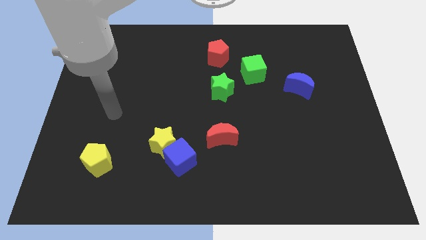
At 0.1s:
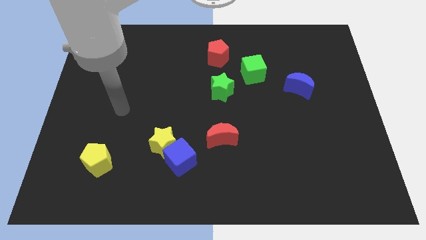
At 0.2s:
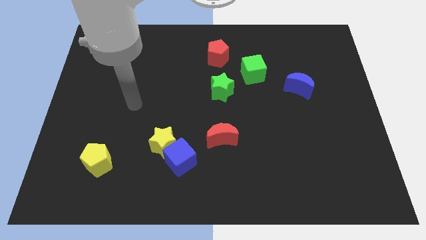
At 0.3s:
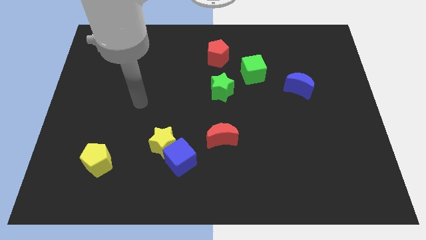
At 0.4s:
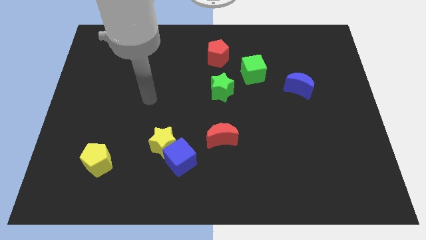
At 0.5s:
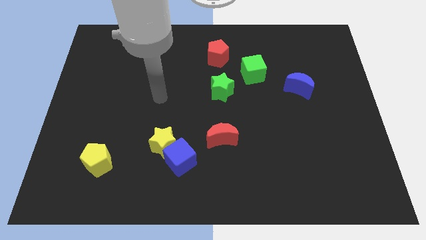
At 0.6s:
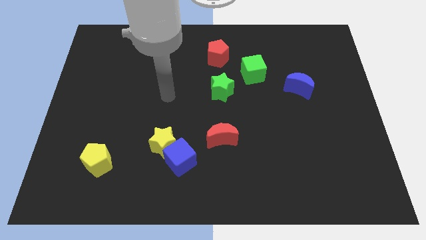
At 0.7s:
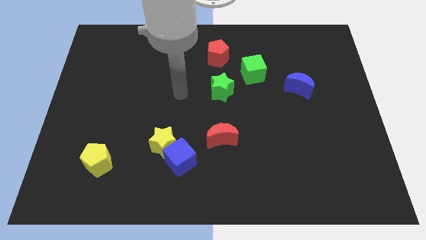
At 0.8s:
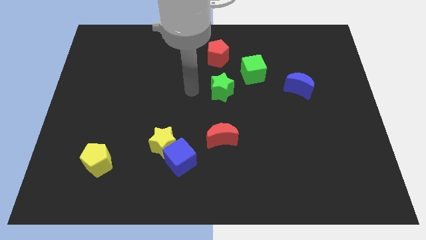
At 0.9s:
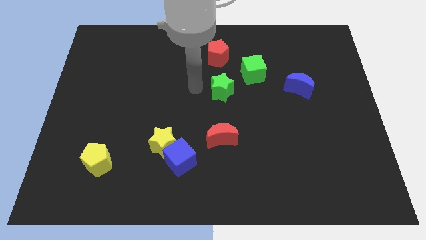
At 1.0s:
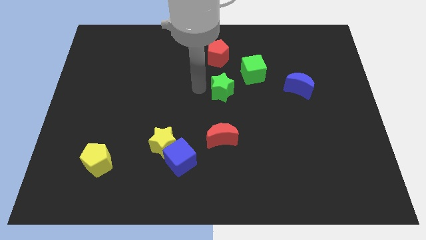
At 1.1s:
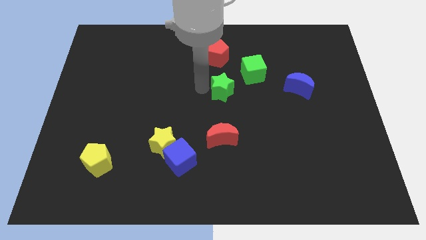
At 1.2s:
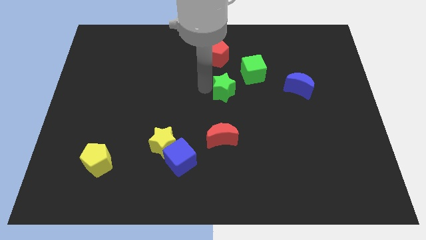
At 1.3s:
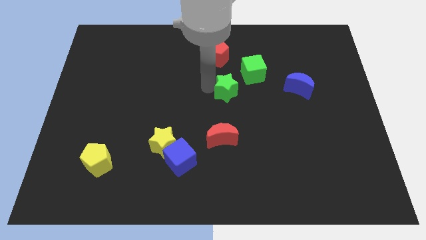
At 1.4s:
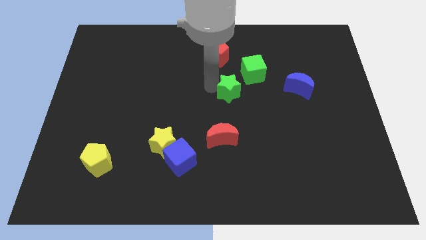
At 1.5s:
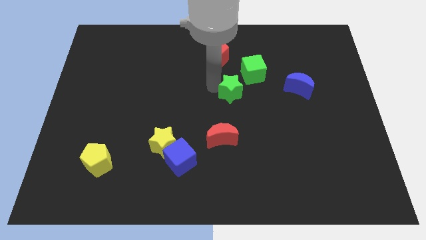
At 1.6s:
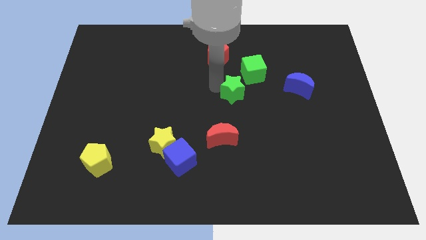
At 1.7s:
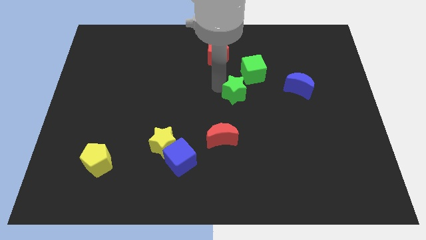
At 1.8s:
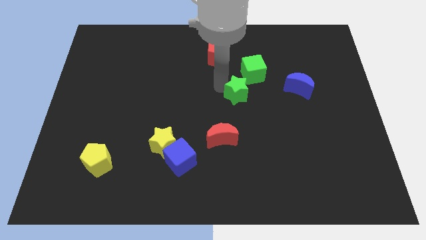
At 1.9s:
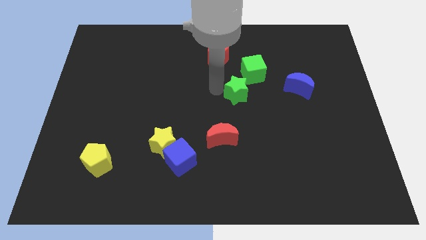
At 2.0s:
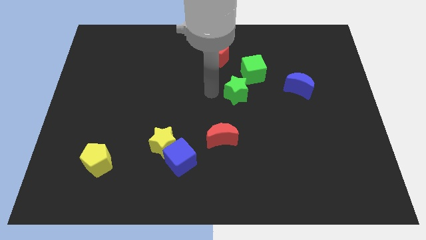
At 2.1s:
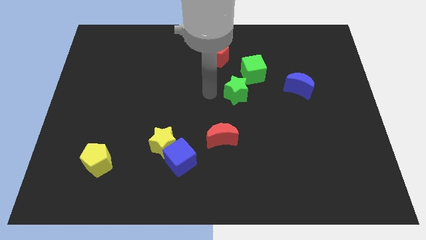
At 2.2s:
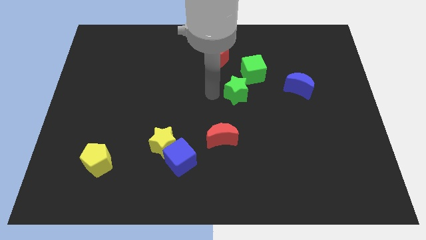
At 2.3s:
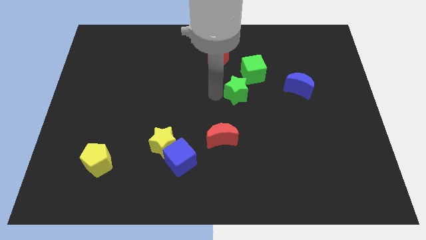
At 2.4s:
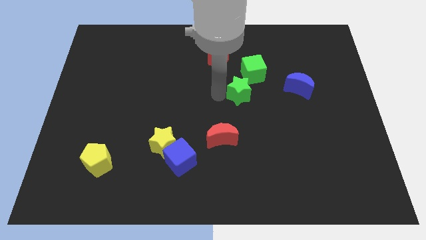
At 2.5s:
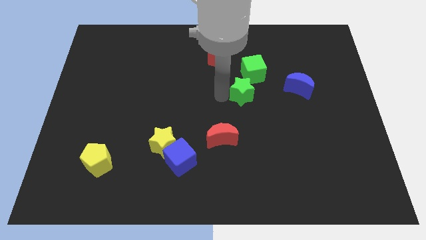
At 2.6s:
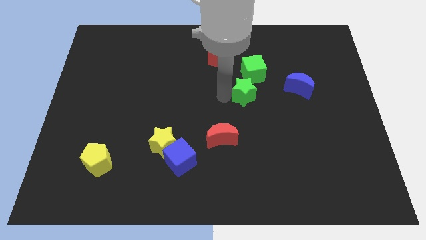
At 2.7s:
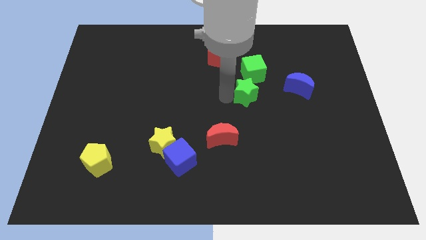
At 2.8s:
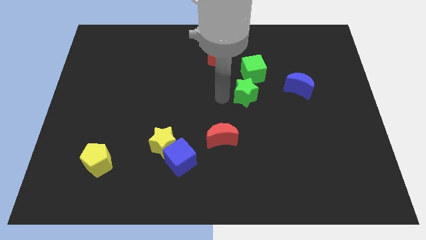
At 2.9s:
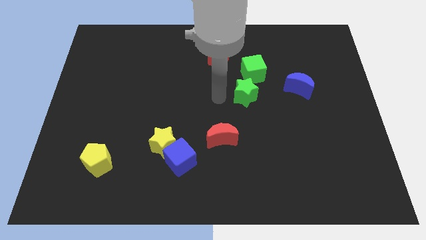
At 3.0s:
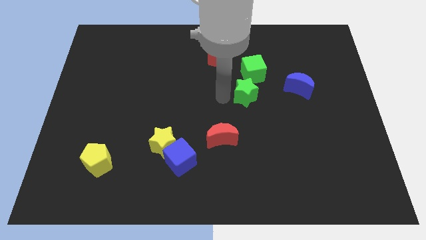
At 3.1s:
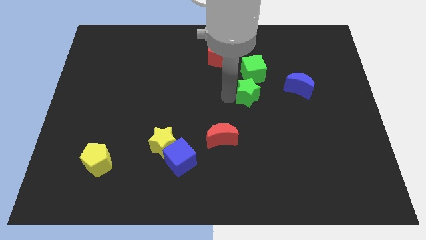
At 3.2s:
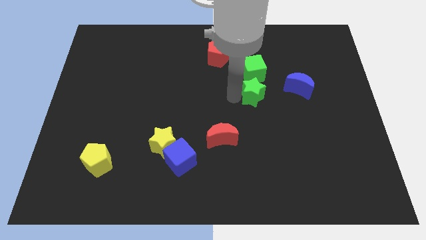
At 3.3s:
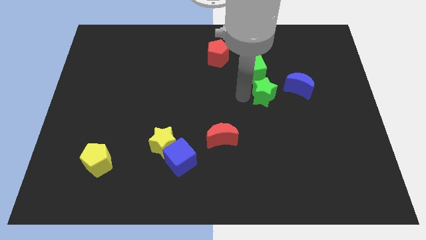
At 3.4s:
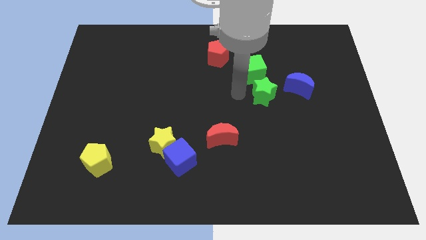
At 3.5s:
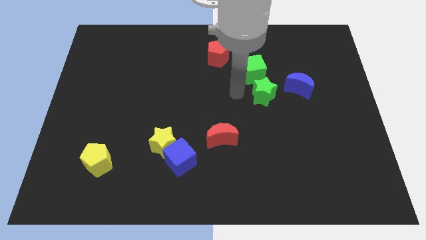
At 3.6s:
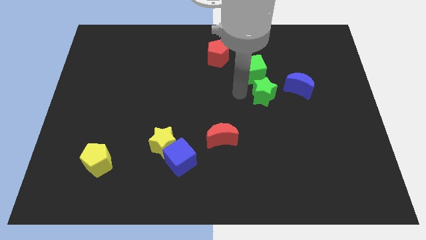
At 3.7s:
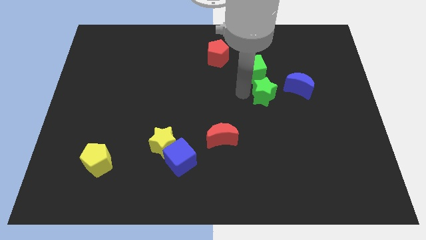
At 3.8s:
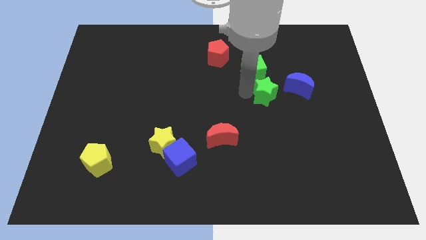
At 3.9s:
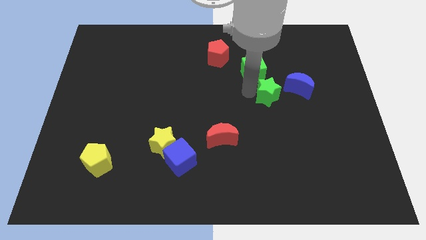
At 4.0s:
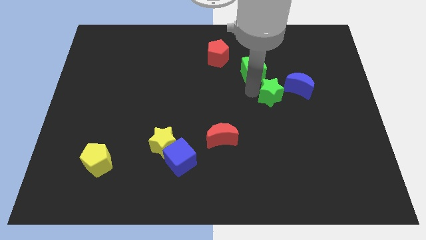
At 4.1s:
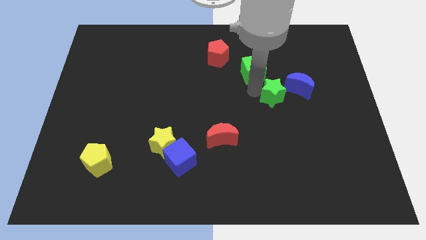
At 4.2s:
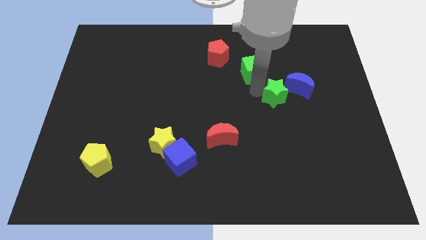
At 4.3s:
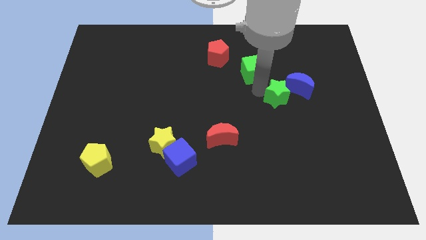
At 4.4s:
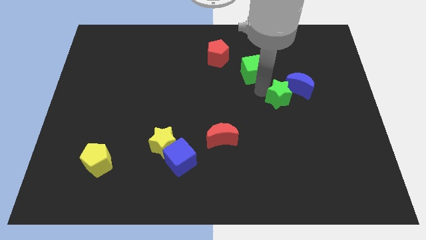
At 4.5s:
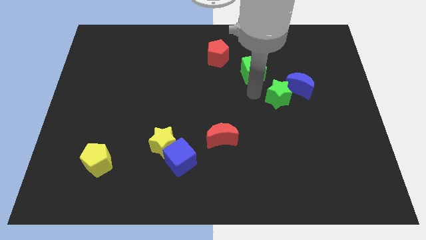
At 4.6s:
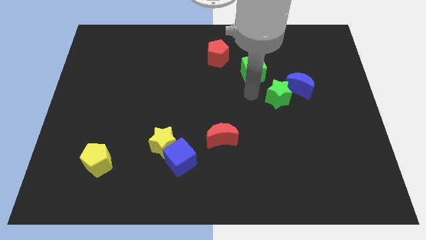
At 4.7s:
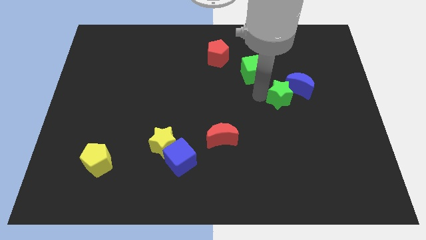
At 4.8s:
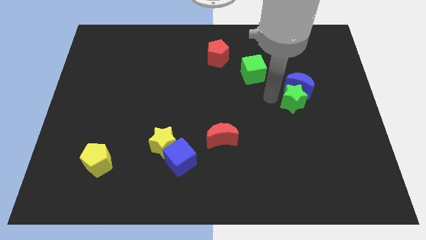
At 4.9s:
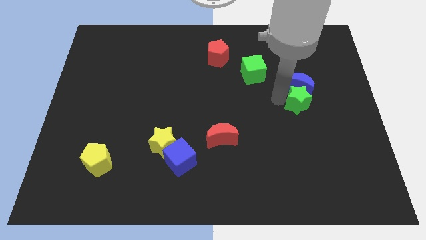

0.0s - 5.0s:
put the green star to the bottom right side of the blue moon

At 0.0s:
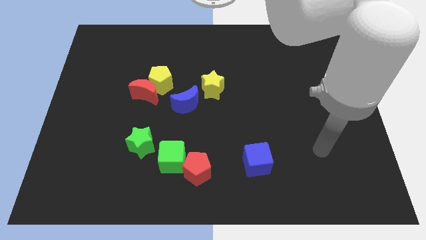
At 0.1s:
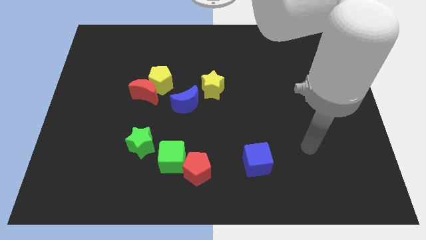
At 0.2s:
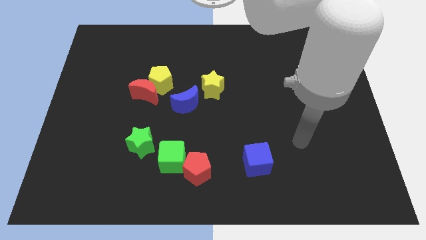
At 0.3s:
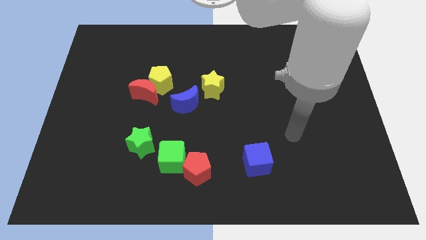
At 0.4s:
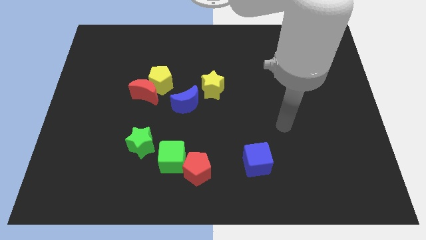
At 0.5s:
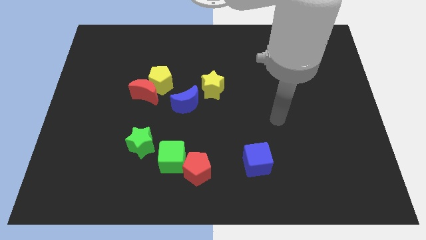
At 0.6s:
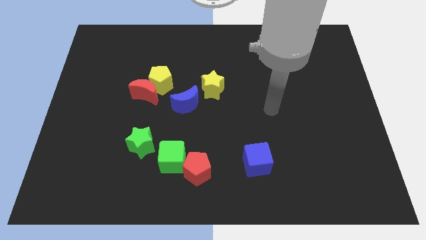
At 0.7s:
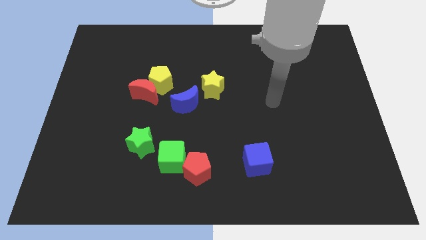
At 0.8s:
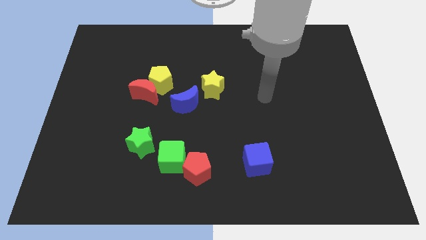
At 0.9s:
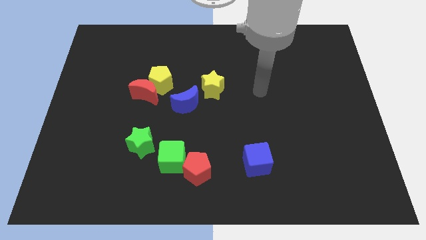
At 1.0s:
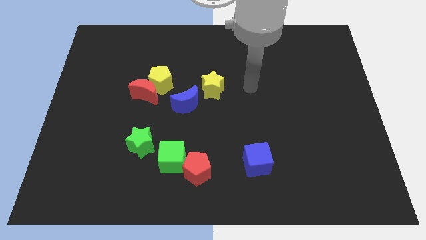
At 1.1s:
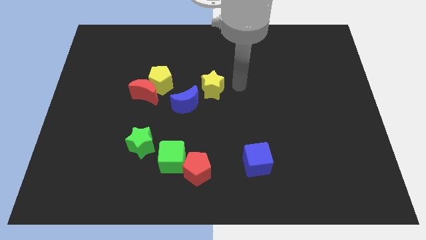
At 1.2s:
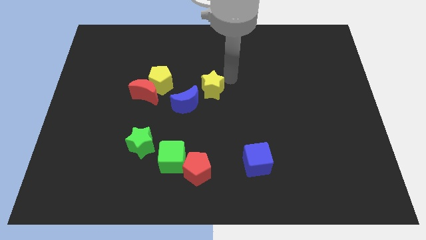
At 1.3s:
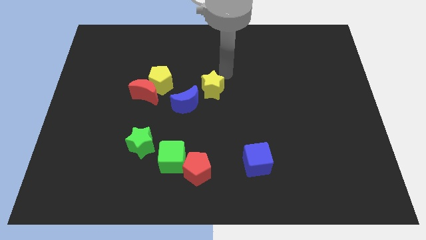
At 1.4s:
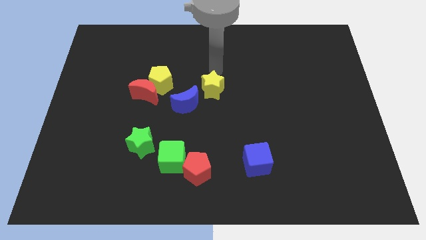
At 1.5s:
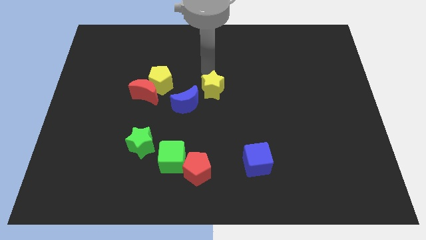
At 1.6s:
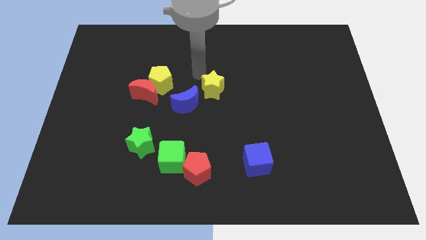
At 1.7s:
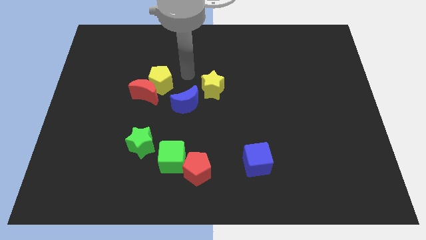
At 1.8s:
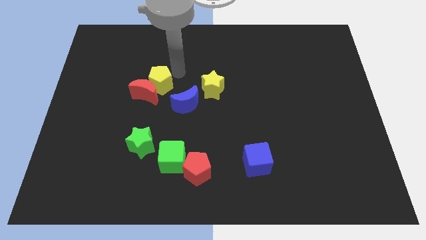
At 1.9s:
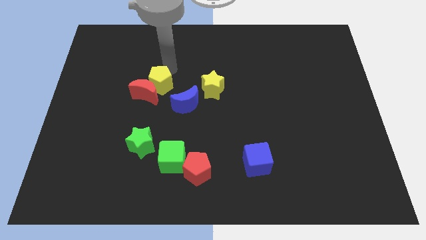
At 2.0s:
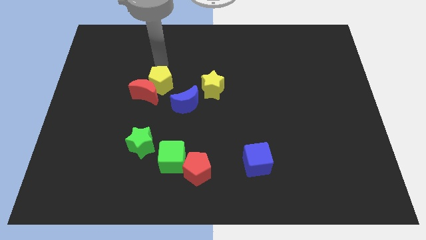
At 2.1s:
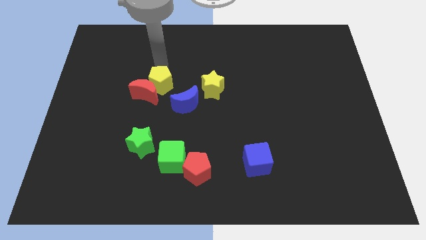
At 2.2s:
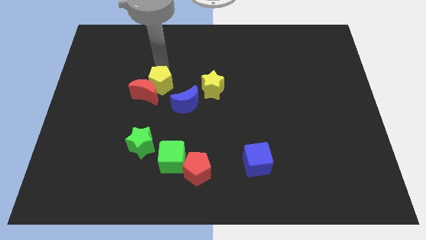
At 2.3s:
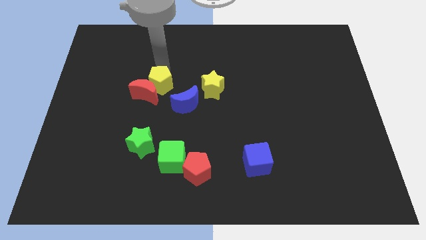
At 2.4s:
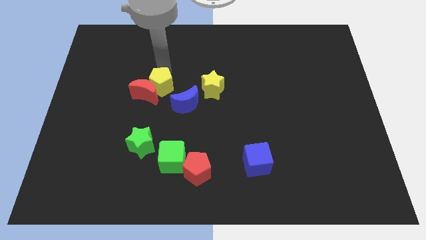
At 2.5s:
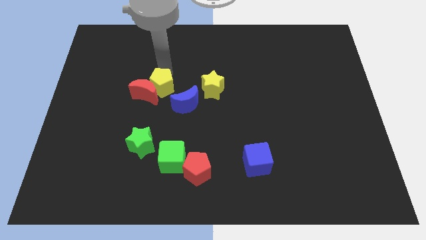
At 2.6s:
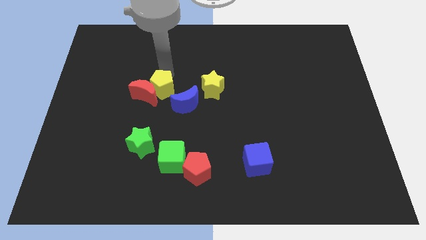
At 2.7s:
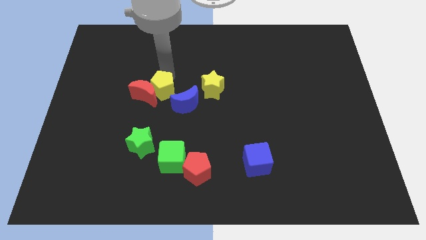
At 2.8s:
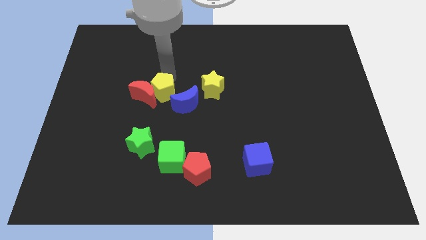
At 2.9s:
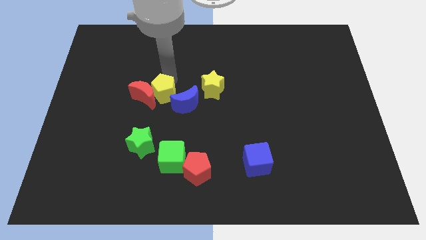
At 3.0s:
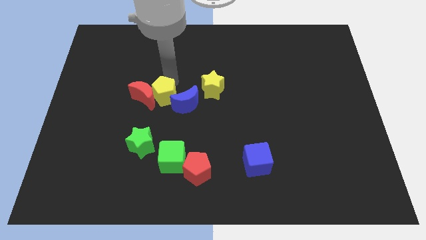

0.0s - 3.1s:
move the yellow pentagon to the top side of the green star
